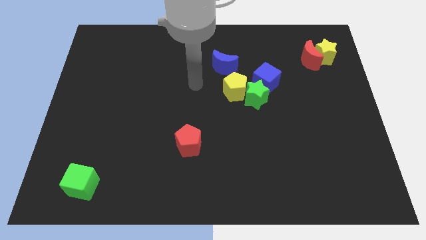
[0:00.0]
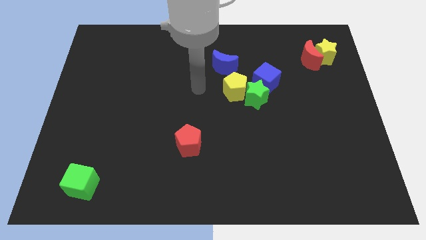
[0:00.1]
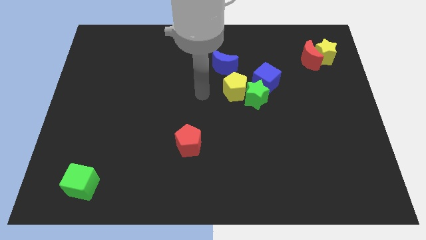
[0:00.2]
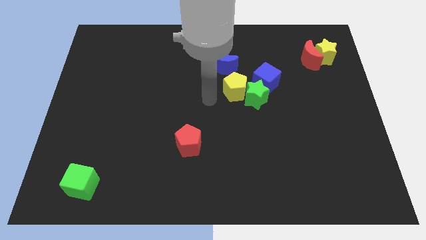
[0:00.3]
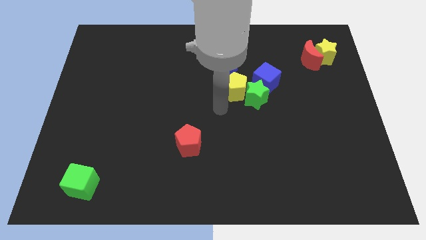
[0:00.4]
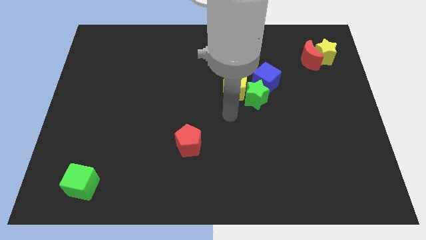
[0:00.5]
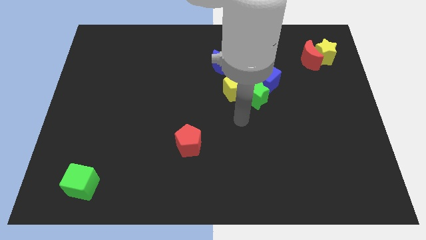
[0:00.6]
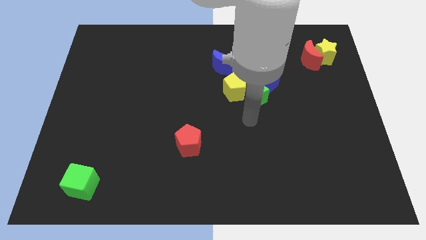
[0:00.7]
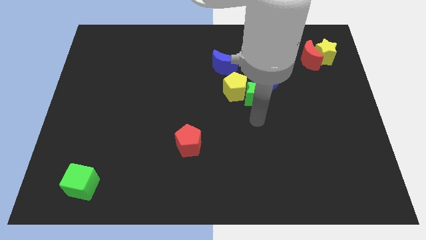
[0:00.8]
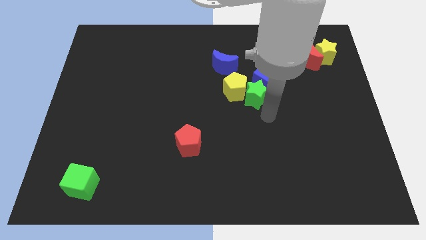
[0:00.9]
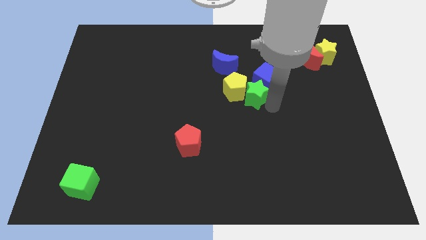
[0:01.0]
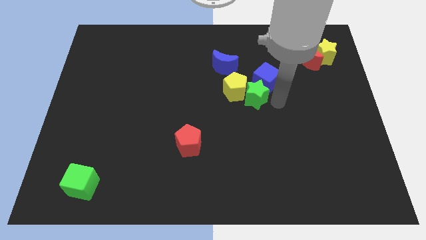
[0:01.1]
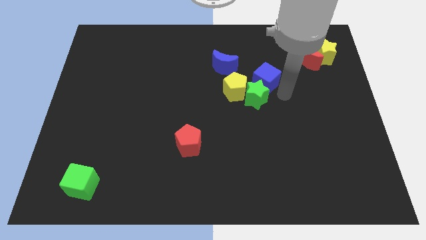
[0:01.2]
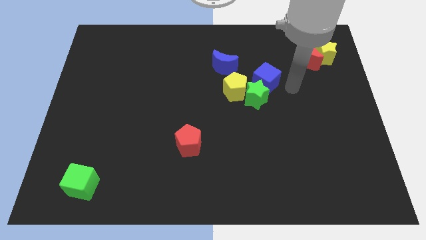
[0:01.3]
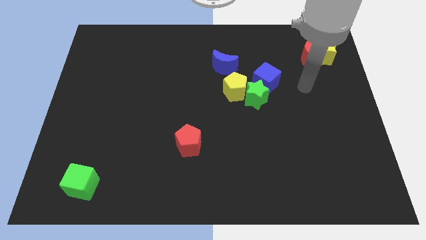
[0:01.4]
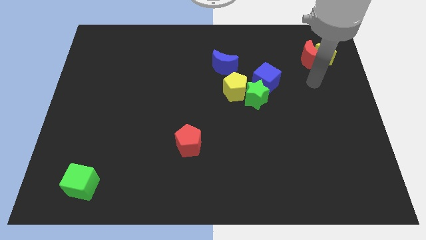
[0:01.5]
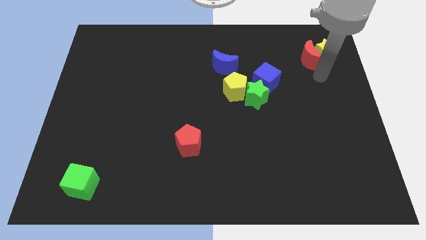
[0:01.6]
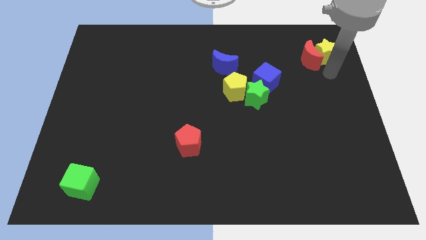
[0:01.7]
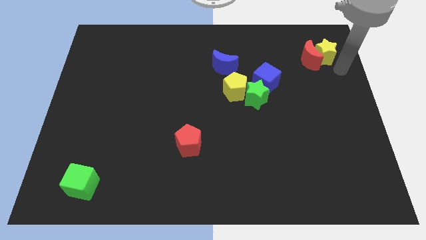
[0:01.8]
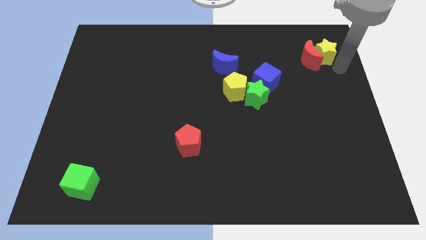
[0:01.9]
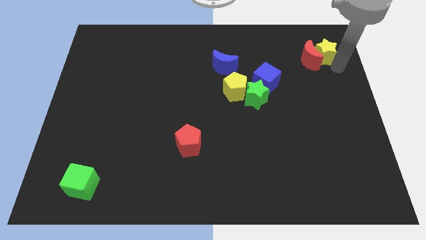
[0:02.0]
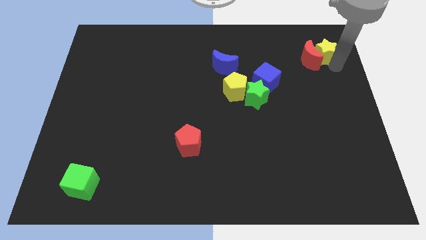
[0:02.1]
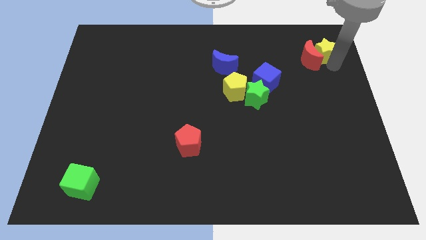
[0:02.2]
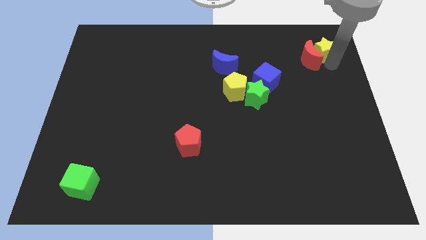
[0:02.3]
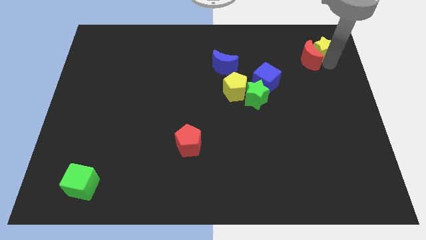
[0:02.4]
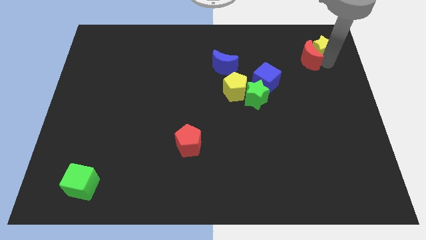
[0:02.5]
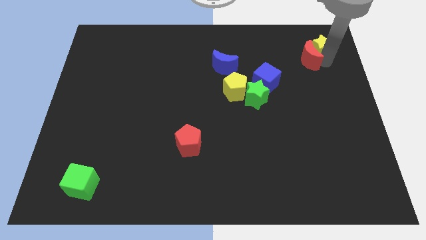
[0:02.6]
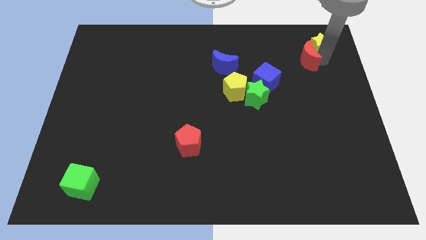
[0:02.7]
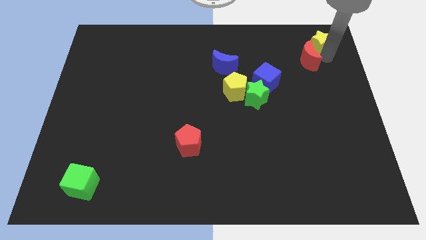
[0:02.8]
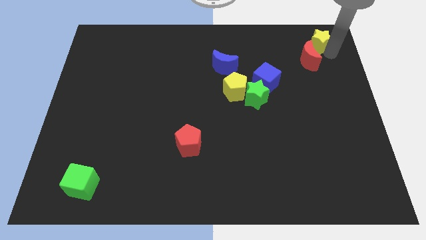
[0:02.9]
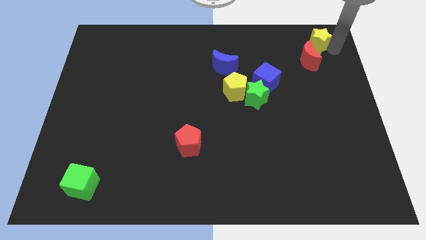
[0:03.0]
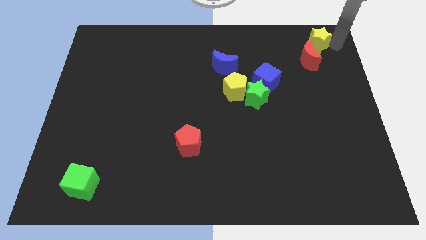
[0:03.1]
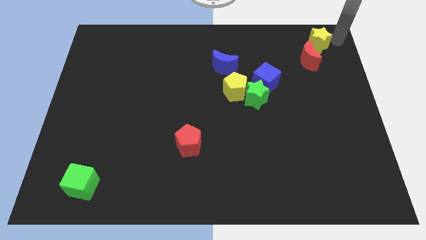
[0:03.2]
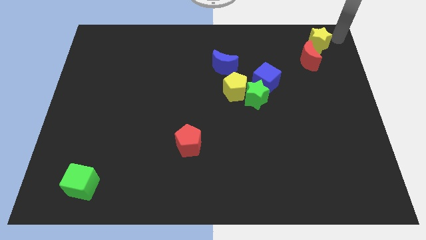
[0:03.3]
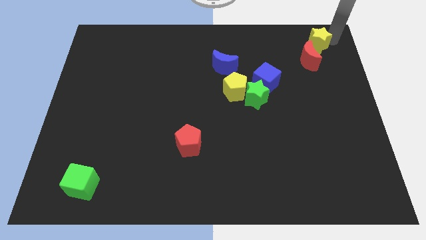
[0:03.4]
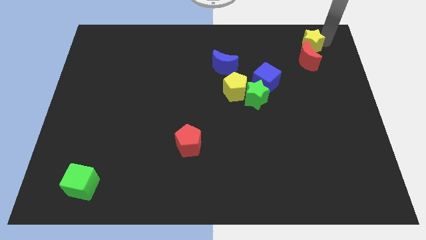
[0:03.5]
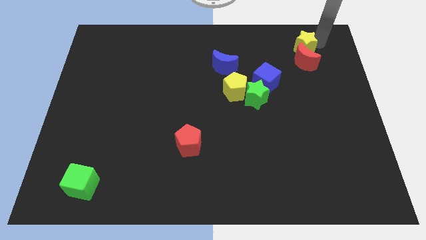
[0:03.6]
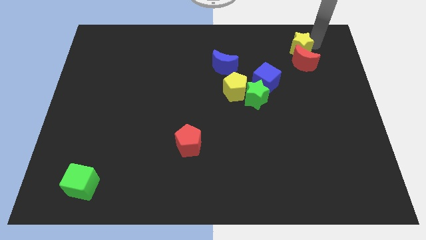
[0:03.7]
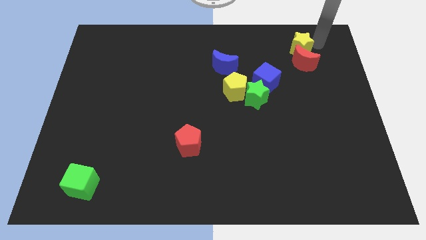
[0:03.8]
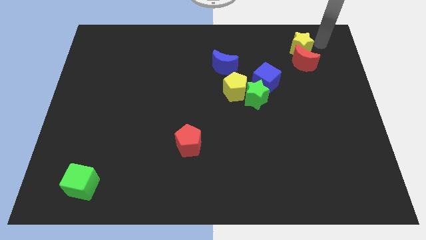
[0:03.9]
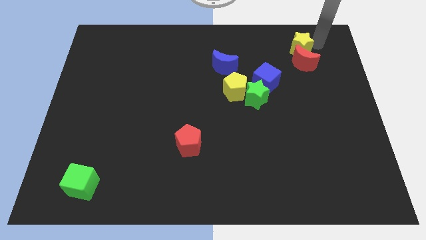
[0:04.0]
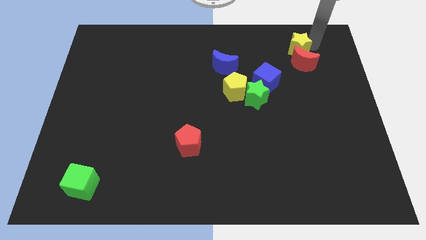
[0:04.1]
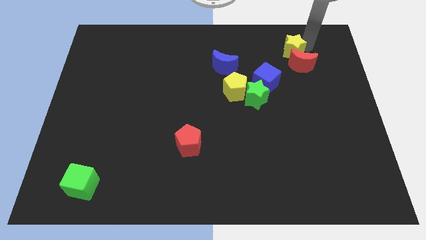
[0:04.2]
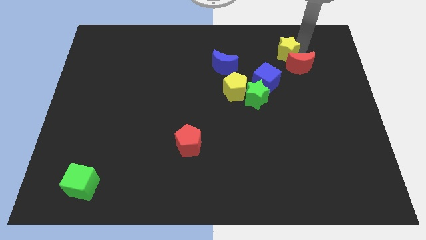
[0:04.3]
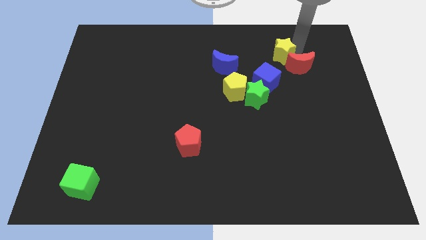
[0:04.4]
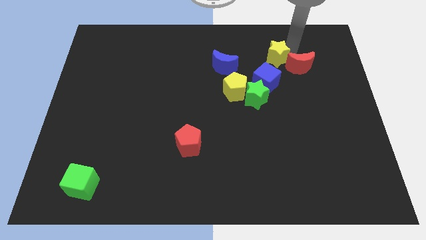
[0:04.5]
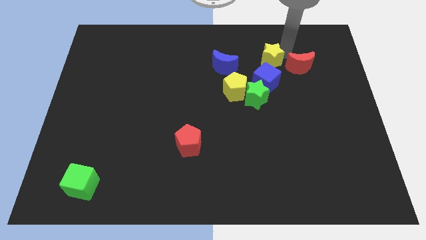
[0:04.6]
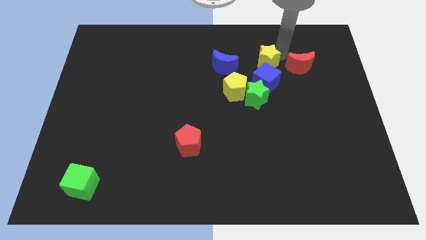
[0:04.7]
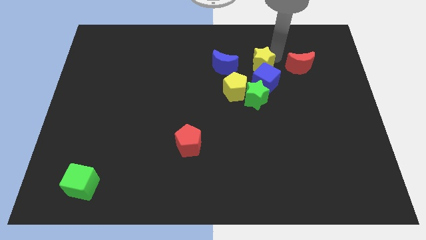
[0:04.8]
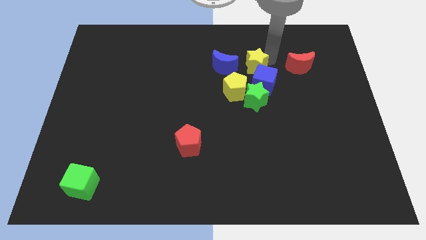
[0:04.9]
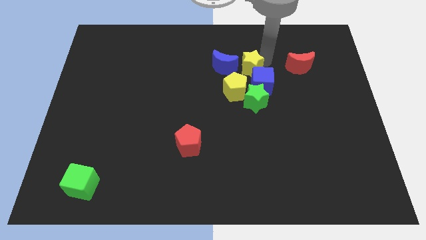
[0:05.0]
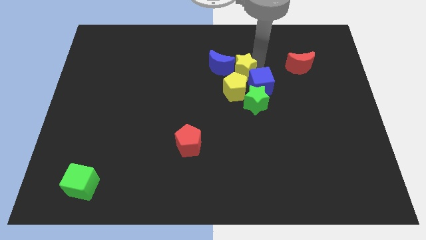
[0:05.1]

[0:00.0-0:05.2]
put the yellow star to the left of the blue cube

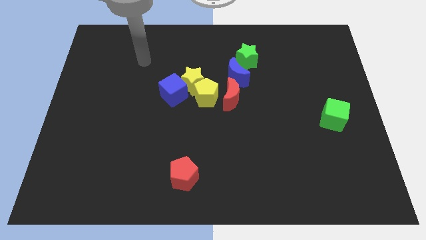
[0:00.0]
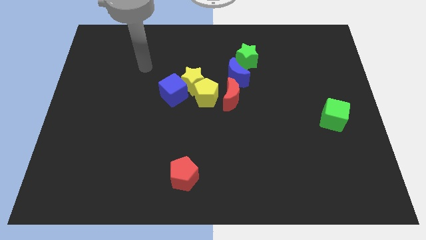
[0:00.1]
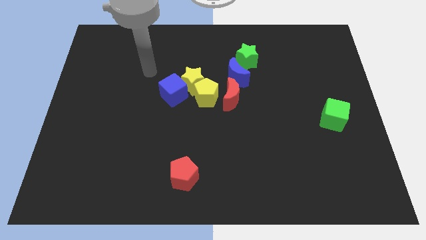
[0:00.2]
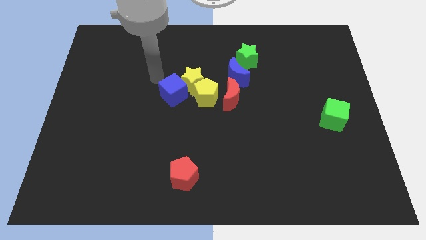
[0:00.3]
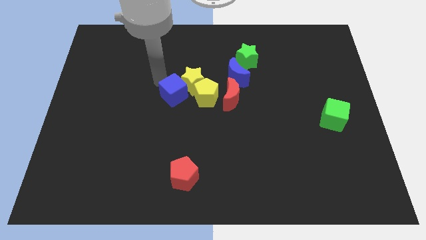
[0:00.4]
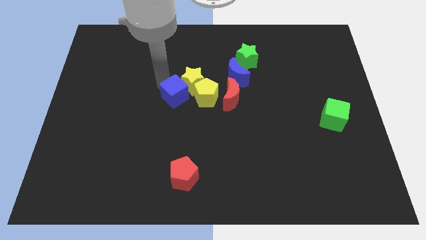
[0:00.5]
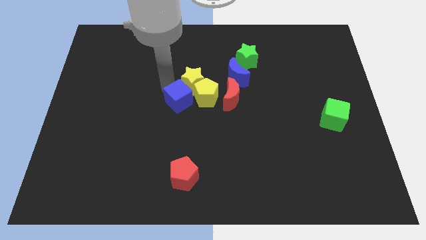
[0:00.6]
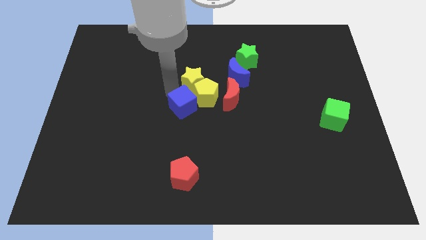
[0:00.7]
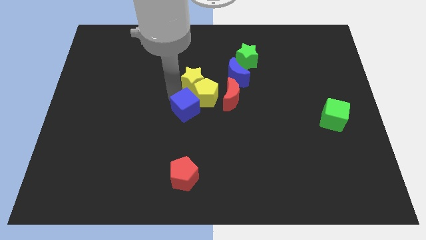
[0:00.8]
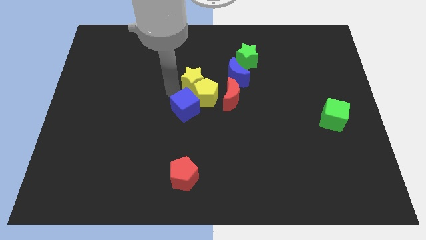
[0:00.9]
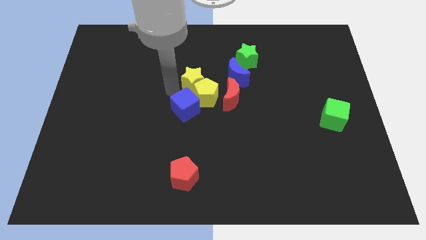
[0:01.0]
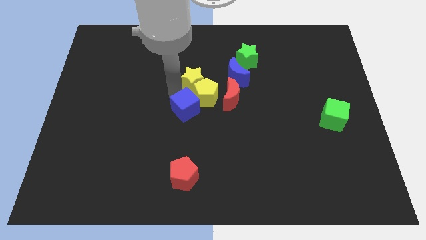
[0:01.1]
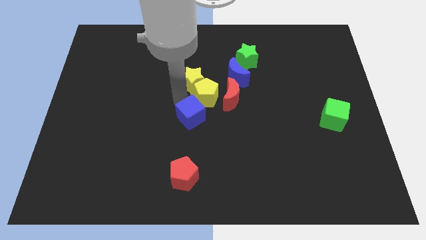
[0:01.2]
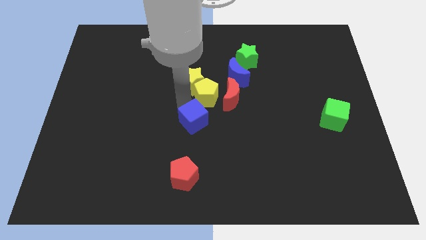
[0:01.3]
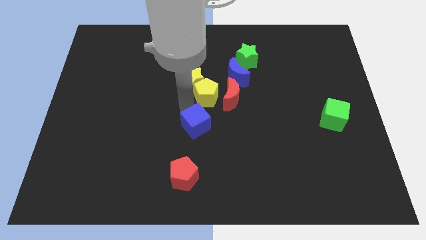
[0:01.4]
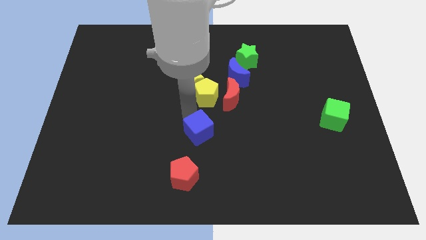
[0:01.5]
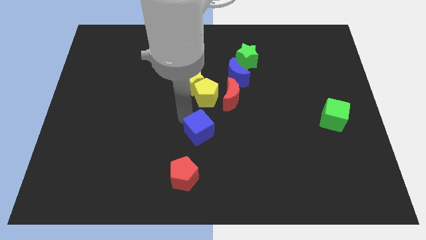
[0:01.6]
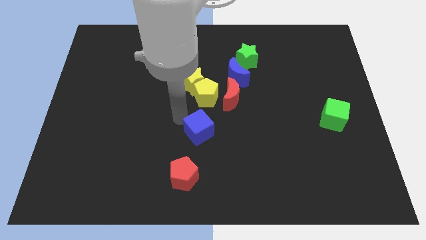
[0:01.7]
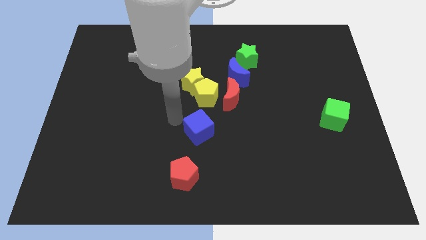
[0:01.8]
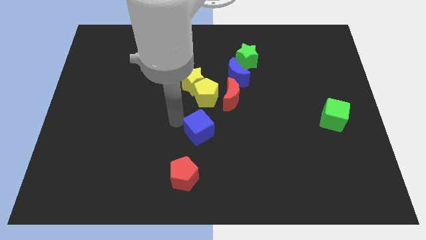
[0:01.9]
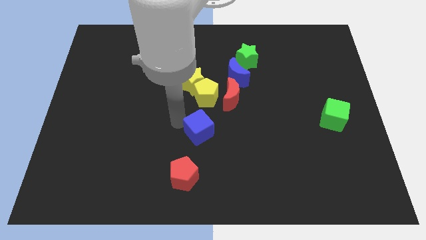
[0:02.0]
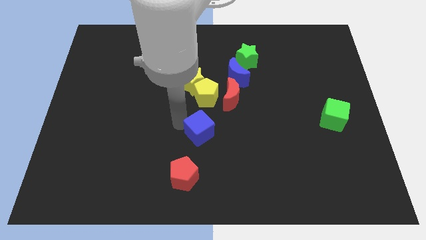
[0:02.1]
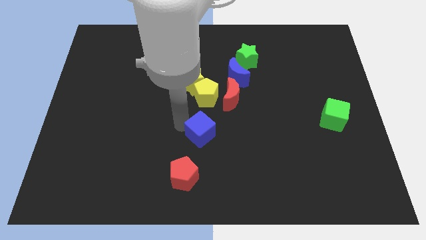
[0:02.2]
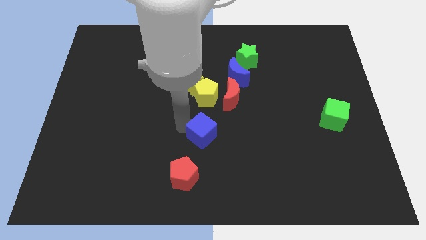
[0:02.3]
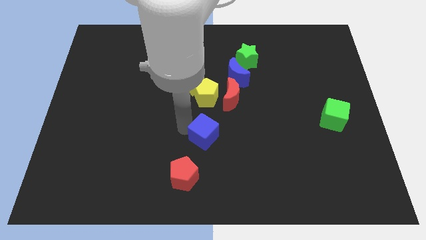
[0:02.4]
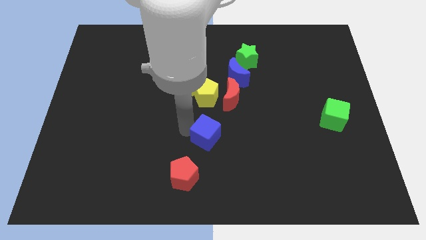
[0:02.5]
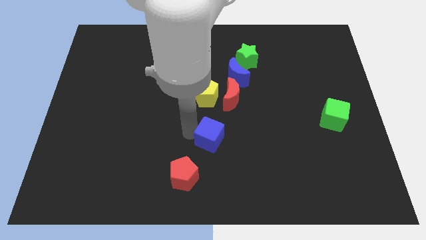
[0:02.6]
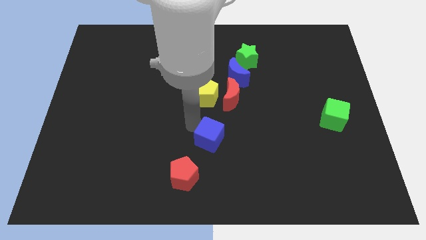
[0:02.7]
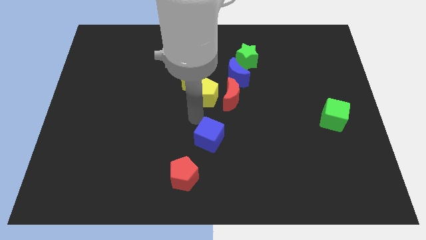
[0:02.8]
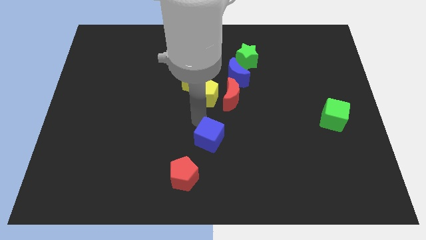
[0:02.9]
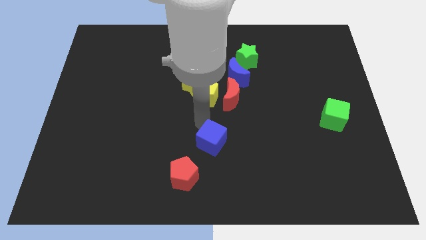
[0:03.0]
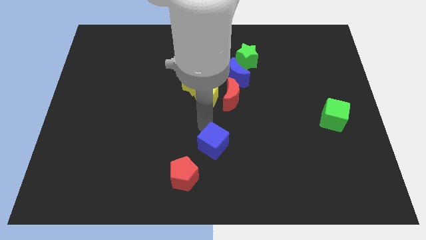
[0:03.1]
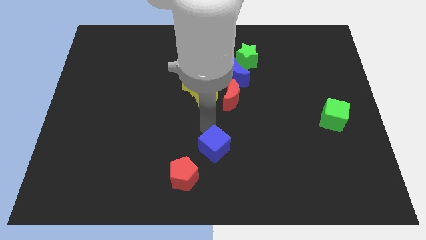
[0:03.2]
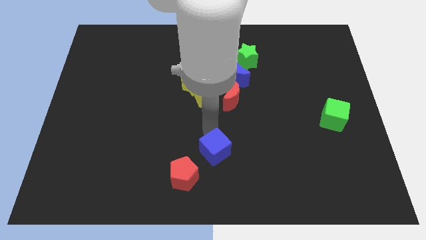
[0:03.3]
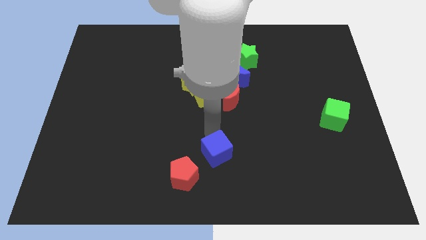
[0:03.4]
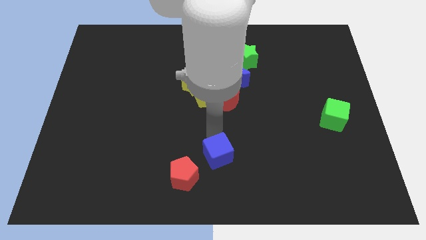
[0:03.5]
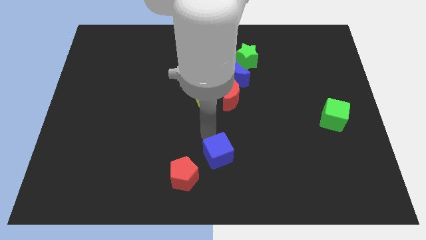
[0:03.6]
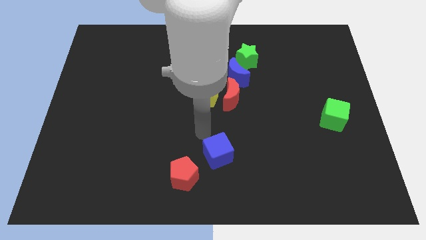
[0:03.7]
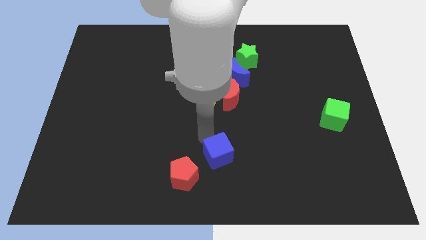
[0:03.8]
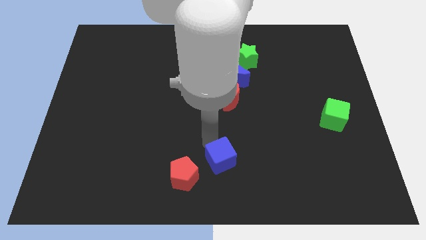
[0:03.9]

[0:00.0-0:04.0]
move the blue cube to the right side of the red pentagon
